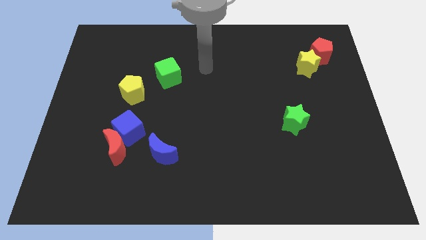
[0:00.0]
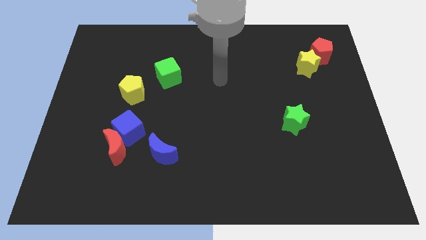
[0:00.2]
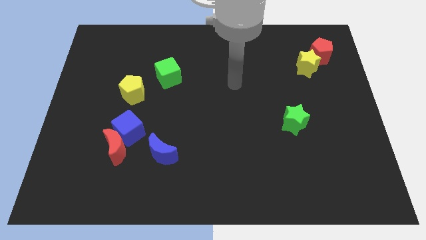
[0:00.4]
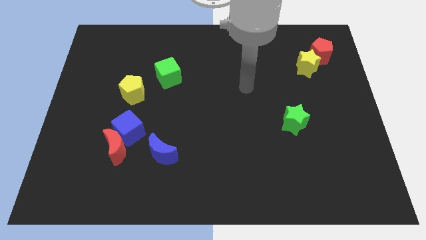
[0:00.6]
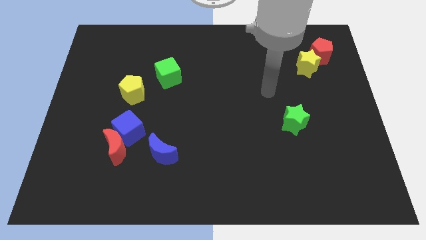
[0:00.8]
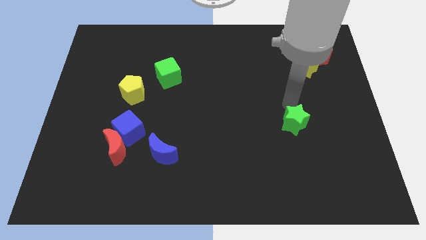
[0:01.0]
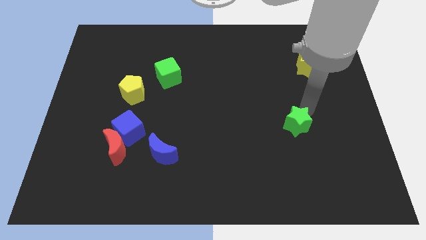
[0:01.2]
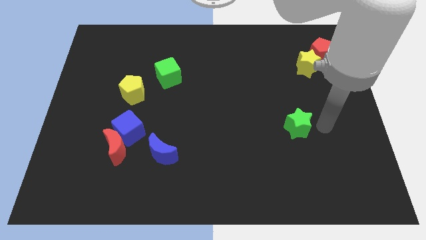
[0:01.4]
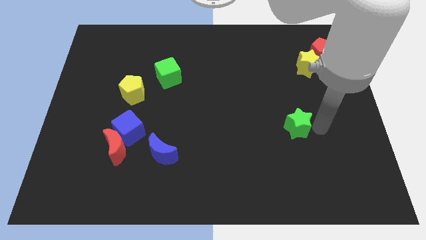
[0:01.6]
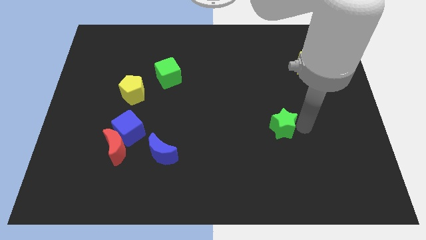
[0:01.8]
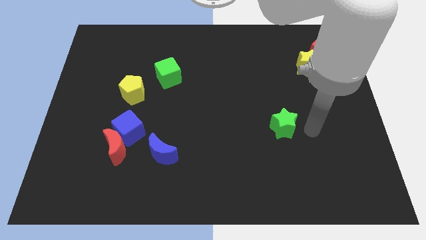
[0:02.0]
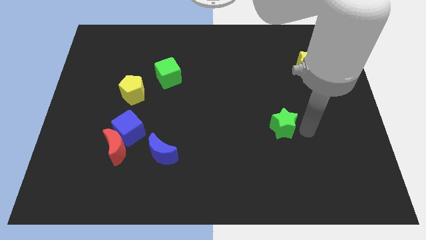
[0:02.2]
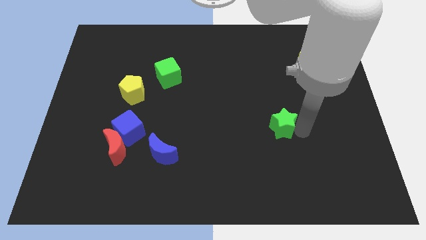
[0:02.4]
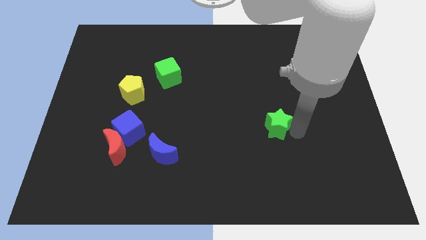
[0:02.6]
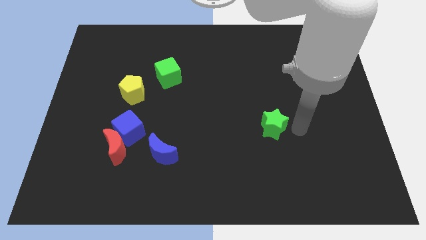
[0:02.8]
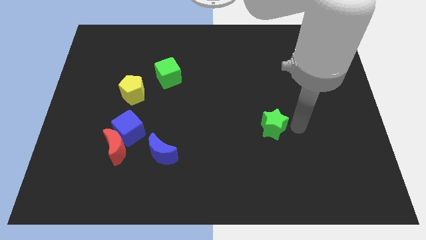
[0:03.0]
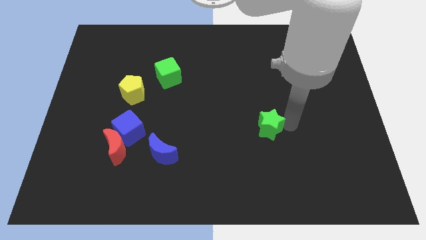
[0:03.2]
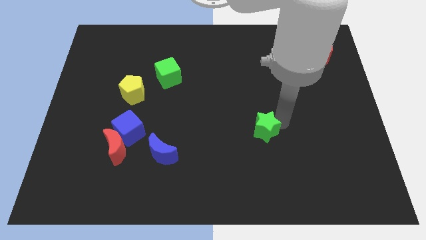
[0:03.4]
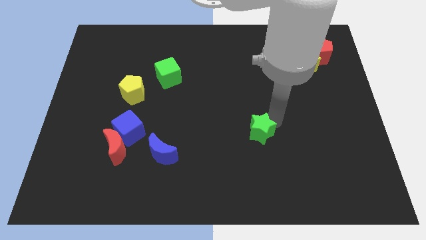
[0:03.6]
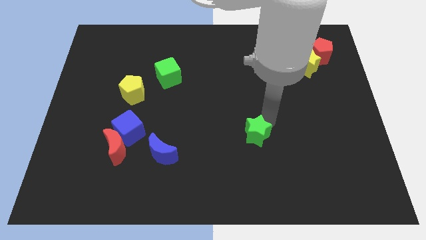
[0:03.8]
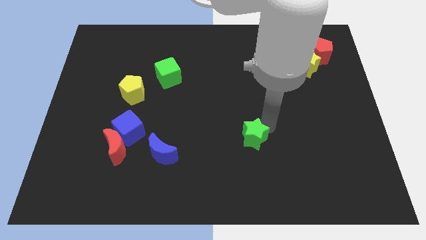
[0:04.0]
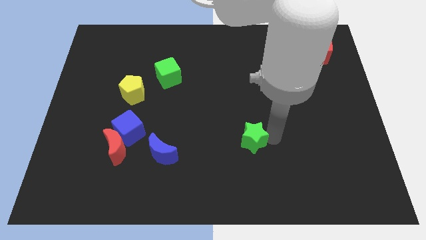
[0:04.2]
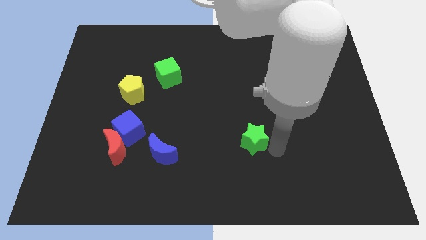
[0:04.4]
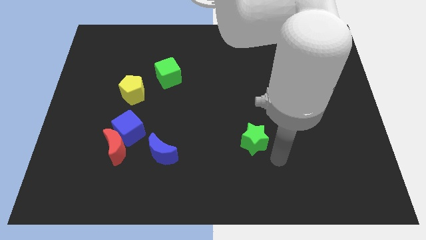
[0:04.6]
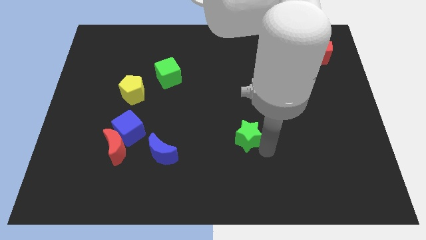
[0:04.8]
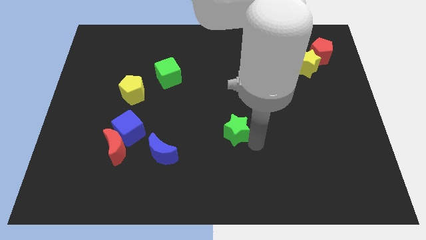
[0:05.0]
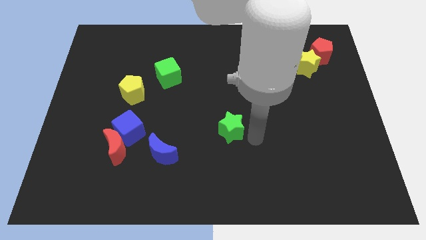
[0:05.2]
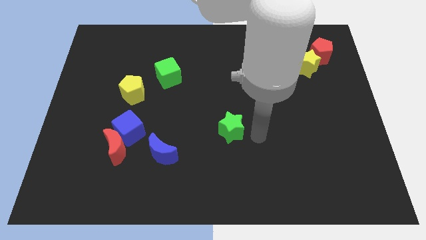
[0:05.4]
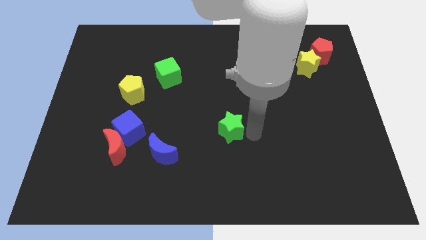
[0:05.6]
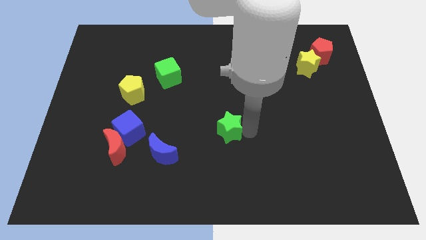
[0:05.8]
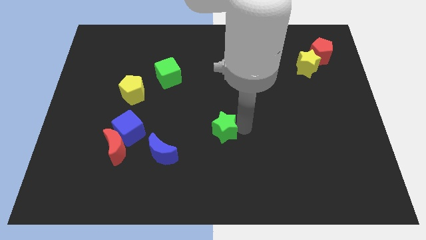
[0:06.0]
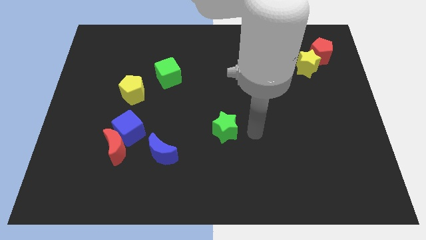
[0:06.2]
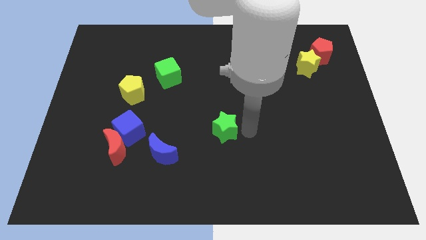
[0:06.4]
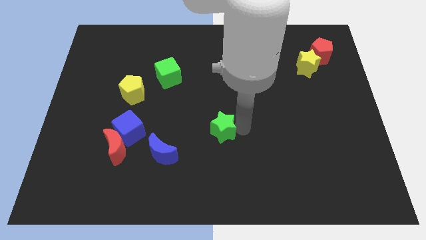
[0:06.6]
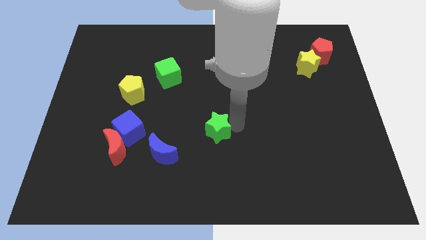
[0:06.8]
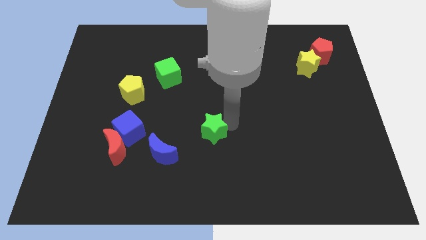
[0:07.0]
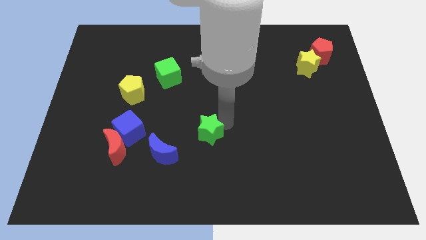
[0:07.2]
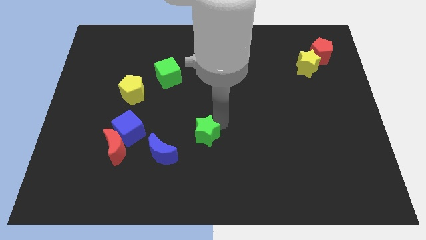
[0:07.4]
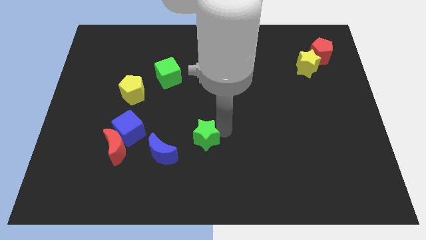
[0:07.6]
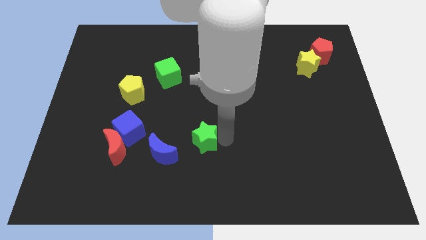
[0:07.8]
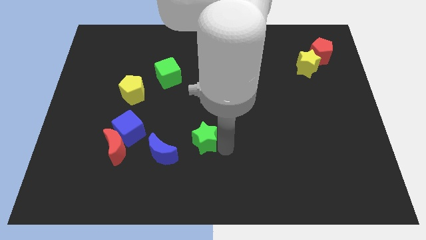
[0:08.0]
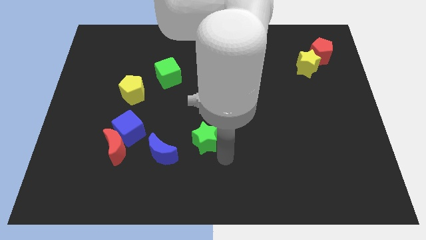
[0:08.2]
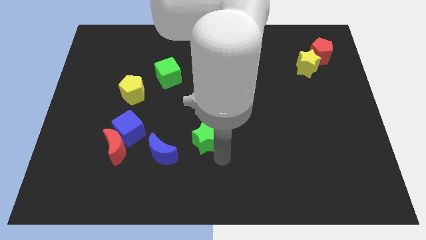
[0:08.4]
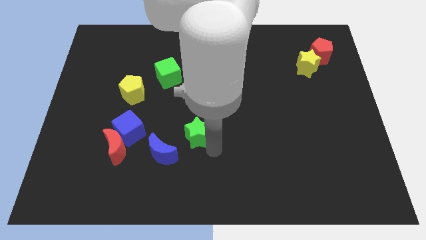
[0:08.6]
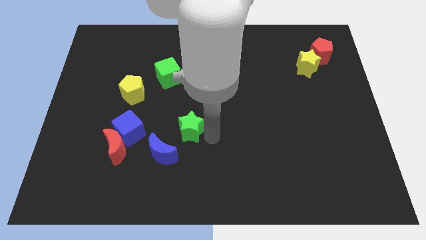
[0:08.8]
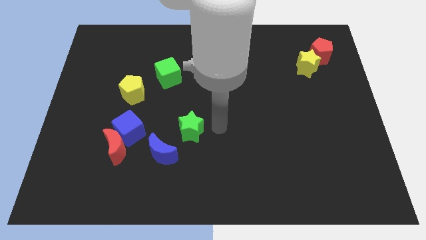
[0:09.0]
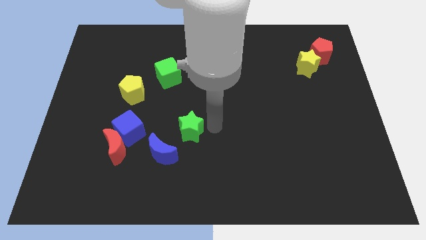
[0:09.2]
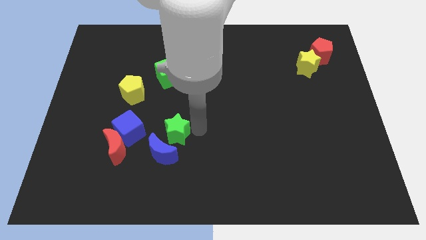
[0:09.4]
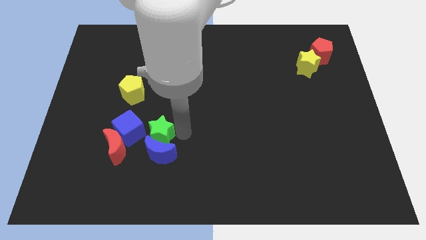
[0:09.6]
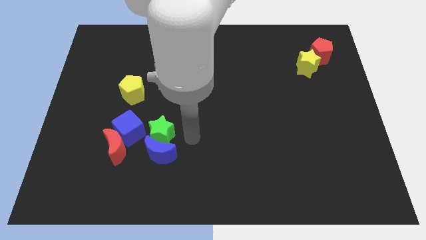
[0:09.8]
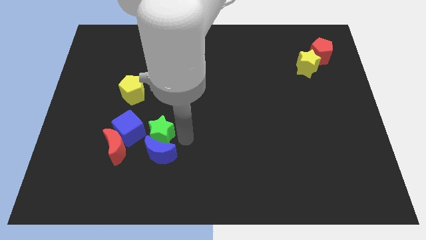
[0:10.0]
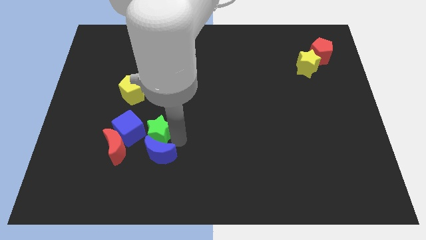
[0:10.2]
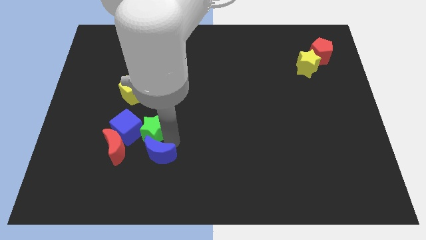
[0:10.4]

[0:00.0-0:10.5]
push the green star towards the blue cube

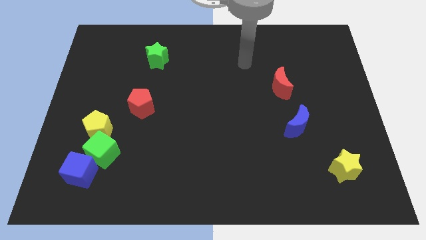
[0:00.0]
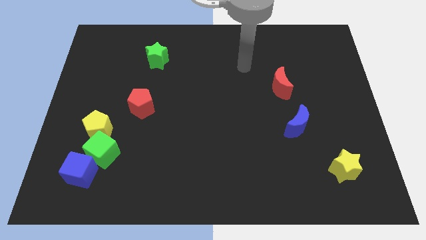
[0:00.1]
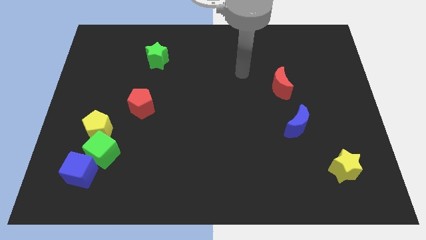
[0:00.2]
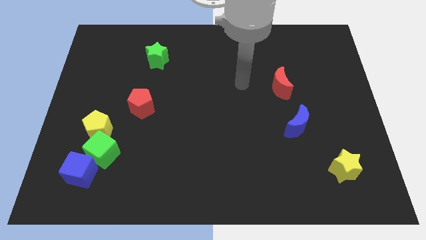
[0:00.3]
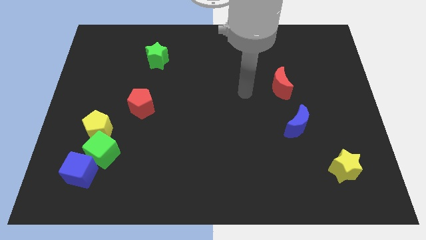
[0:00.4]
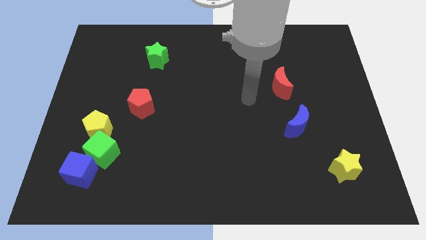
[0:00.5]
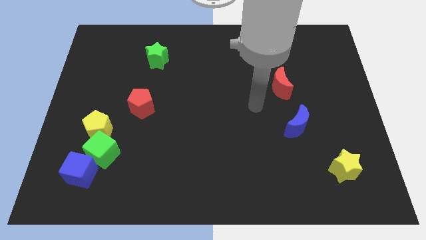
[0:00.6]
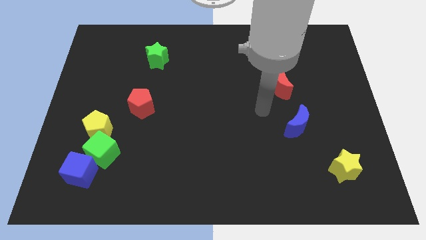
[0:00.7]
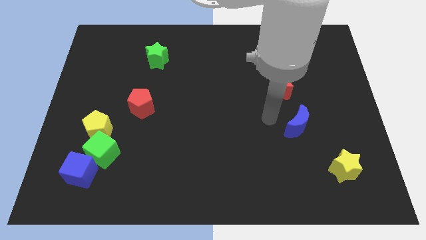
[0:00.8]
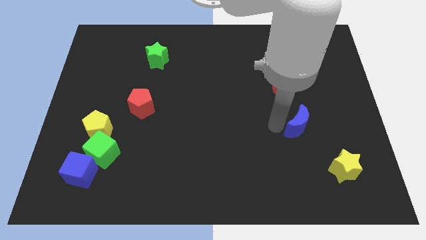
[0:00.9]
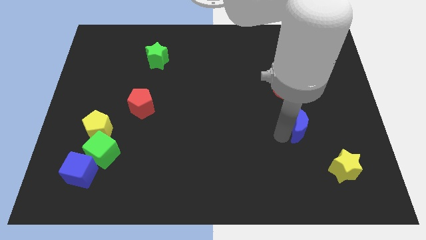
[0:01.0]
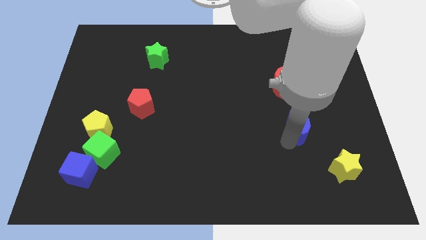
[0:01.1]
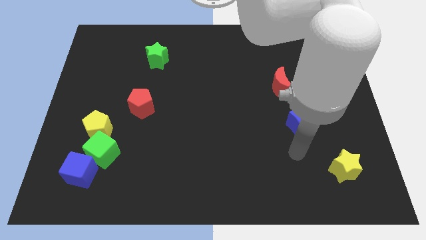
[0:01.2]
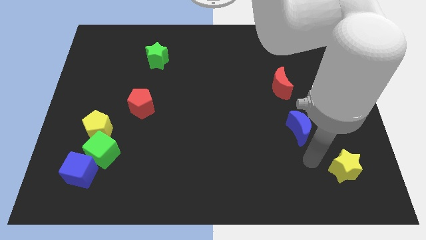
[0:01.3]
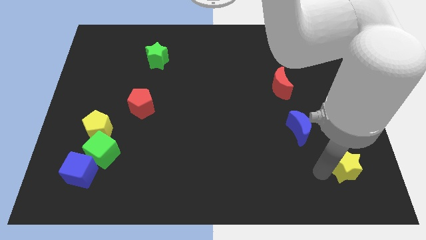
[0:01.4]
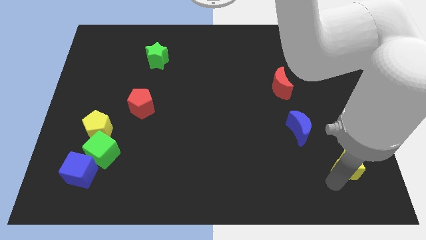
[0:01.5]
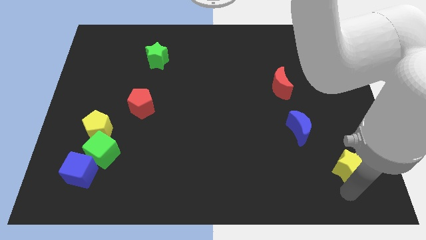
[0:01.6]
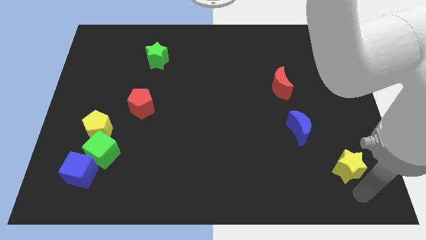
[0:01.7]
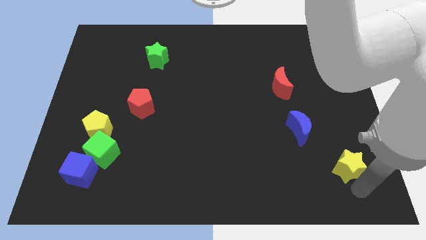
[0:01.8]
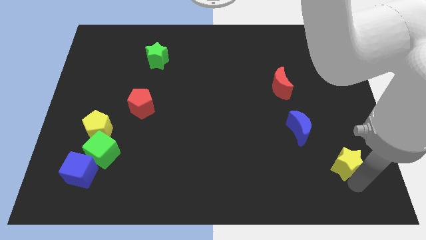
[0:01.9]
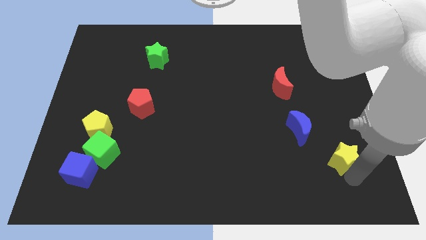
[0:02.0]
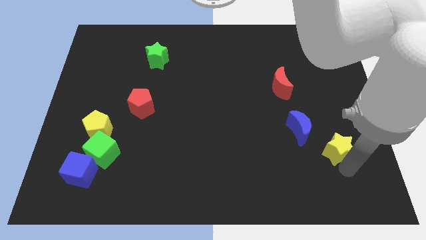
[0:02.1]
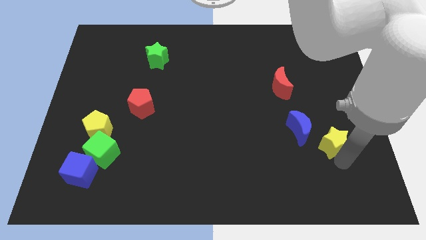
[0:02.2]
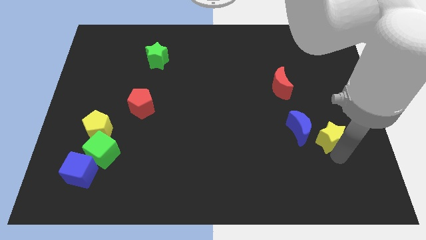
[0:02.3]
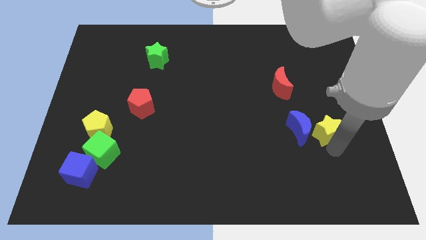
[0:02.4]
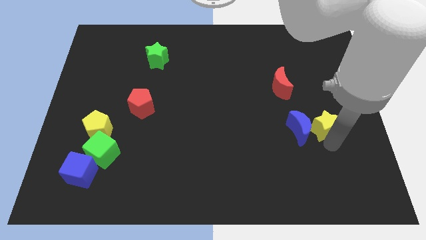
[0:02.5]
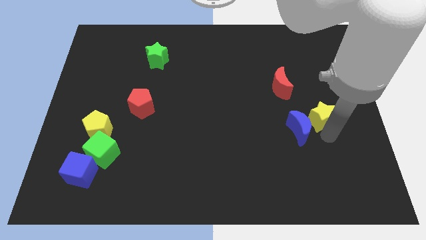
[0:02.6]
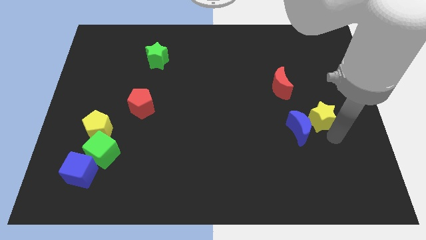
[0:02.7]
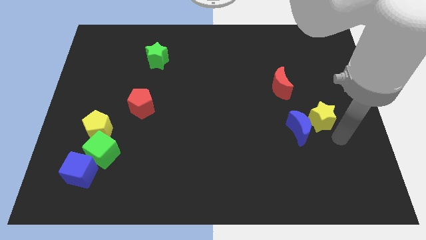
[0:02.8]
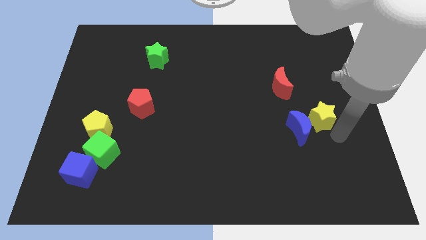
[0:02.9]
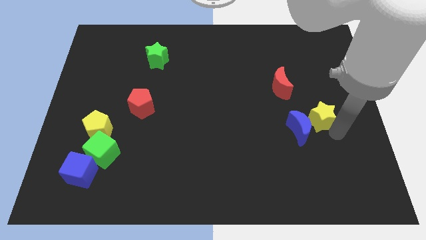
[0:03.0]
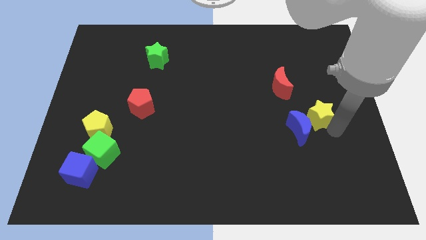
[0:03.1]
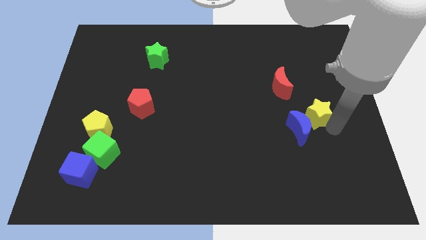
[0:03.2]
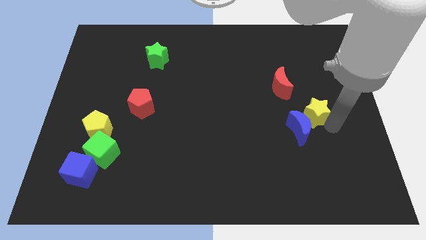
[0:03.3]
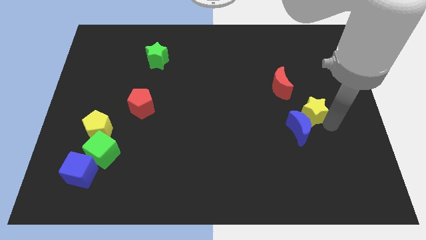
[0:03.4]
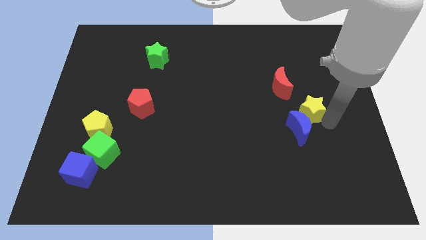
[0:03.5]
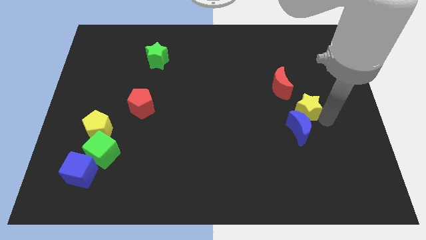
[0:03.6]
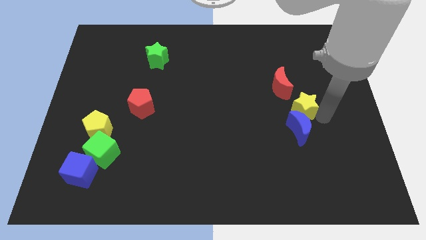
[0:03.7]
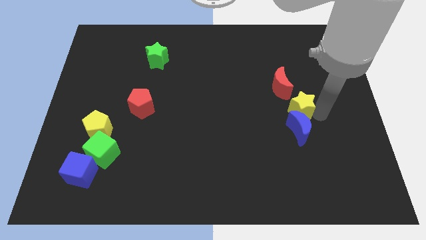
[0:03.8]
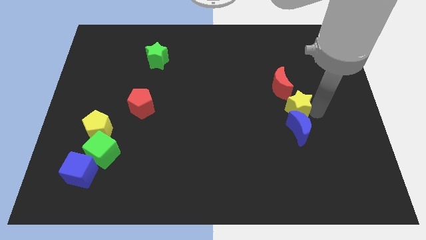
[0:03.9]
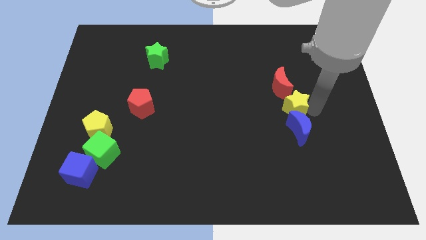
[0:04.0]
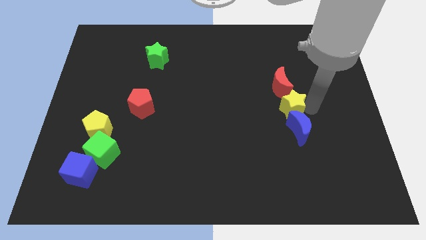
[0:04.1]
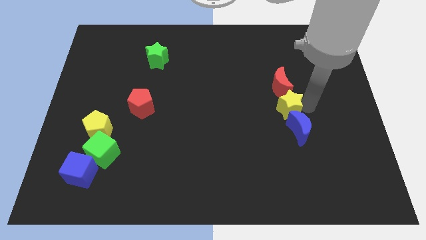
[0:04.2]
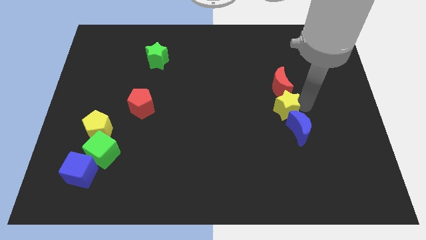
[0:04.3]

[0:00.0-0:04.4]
push the yellow star towards the red moon
